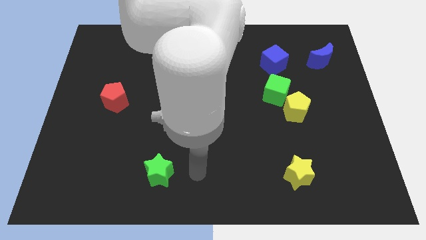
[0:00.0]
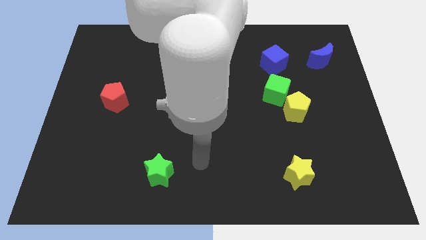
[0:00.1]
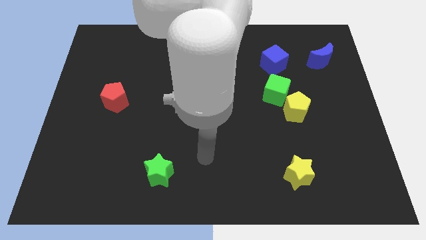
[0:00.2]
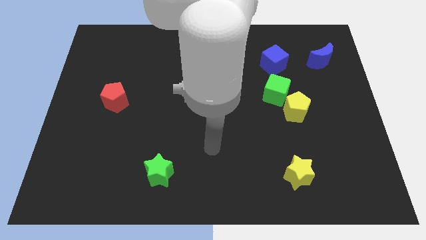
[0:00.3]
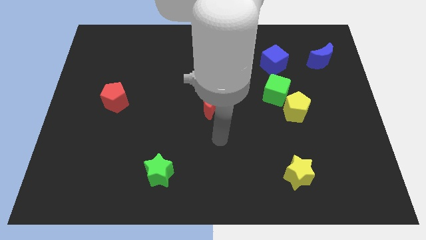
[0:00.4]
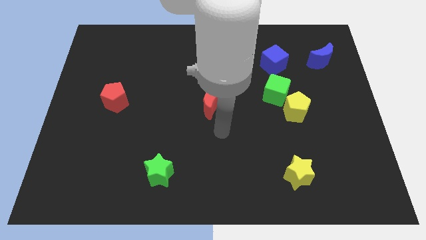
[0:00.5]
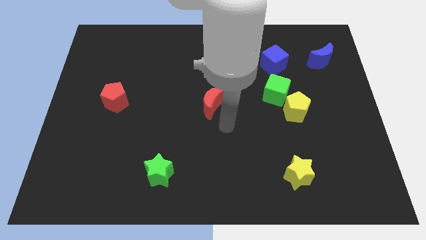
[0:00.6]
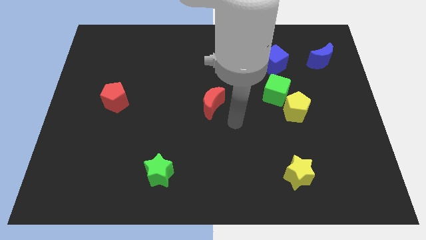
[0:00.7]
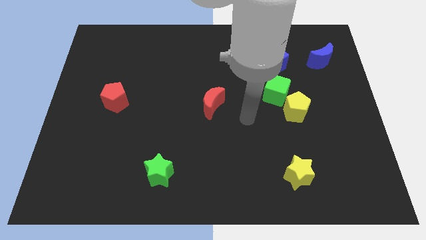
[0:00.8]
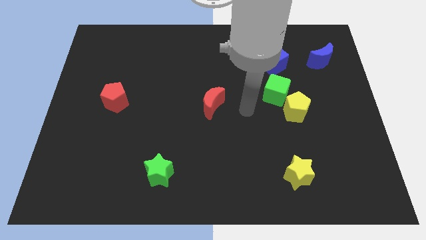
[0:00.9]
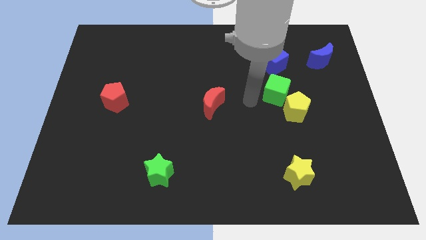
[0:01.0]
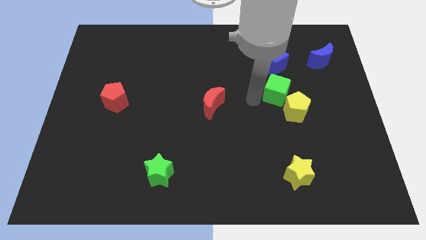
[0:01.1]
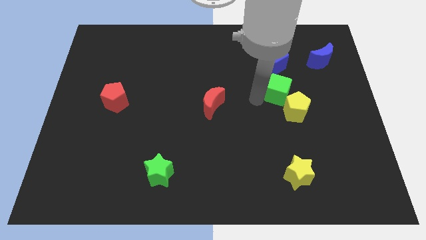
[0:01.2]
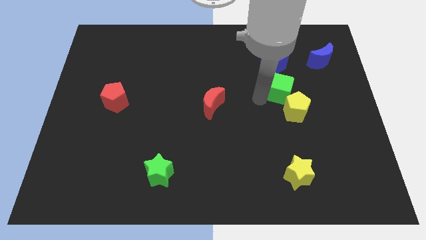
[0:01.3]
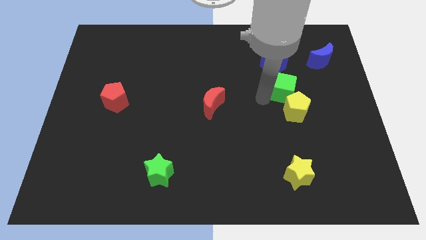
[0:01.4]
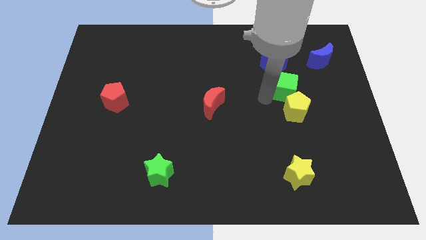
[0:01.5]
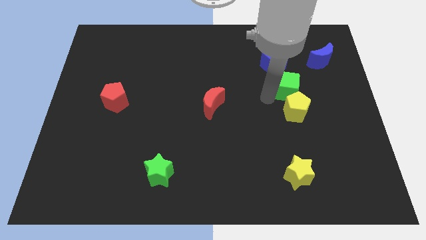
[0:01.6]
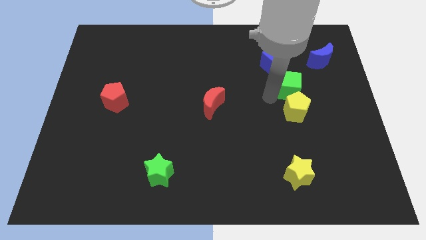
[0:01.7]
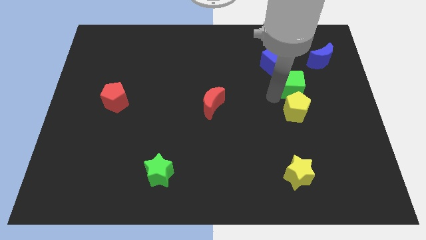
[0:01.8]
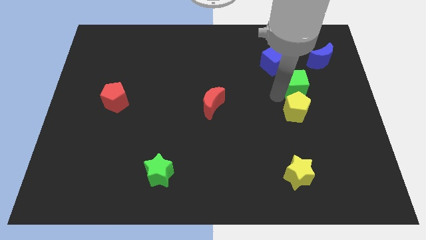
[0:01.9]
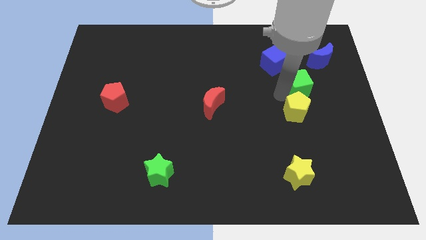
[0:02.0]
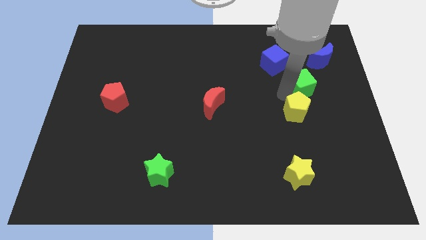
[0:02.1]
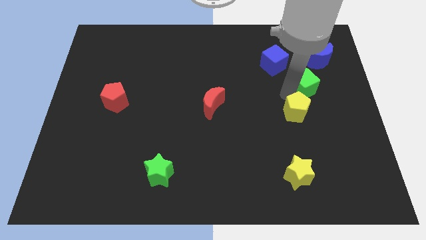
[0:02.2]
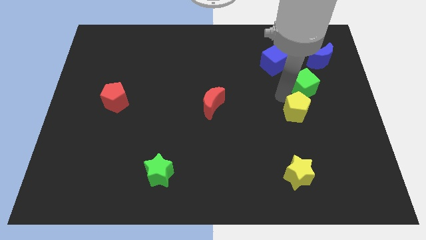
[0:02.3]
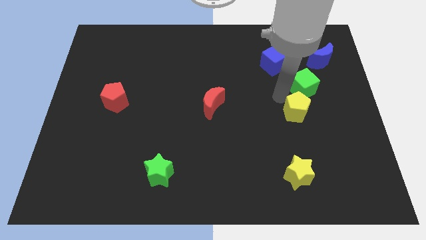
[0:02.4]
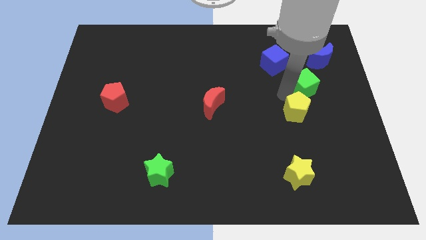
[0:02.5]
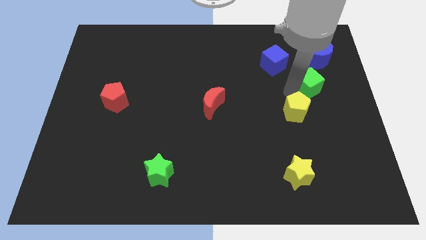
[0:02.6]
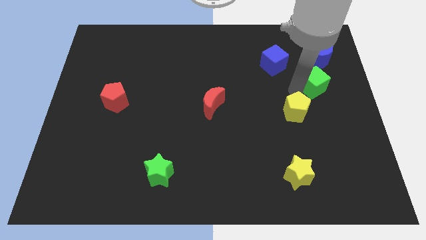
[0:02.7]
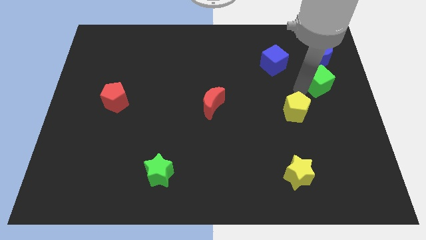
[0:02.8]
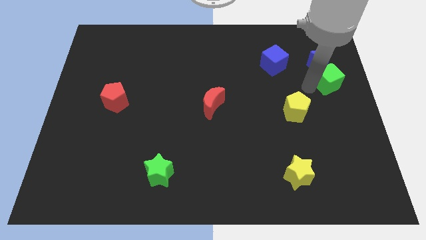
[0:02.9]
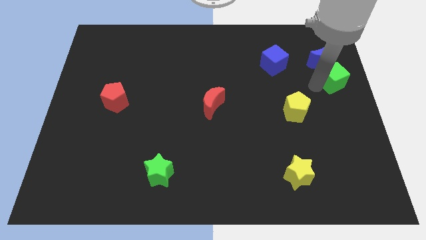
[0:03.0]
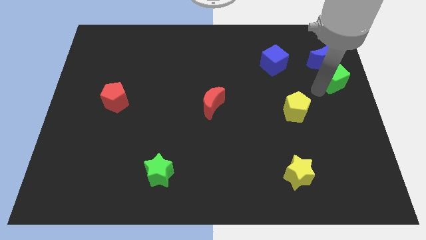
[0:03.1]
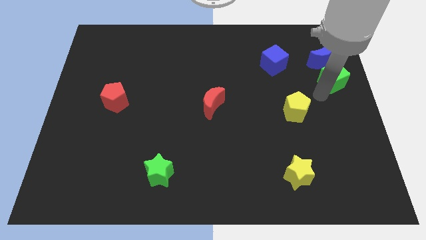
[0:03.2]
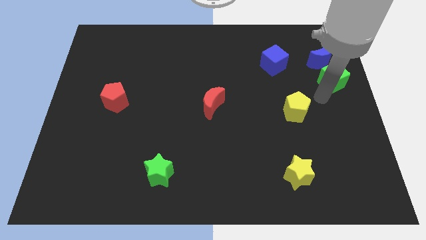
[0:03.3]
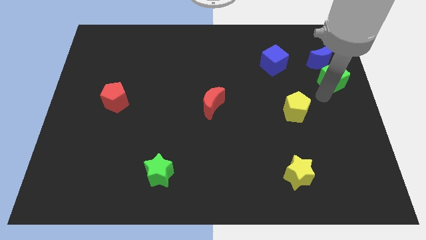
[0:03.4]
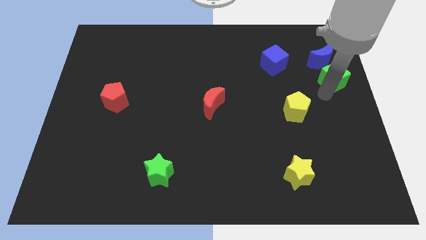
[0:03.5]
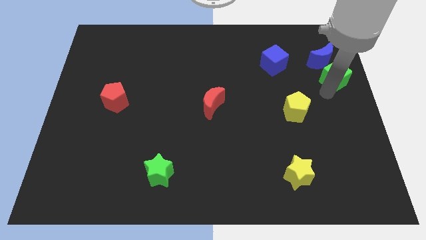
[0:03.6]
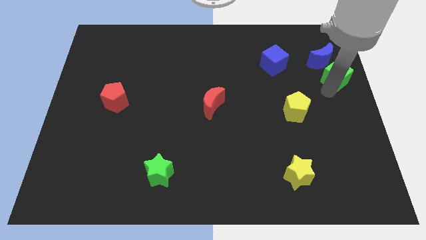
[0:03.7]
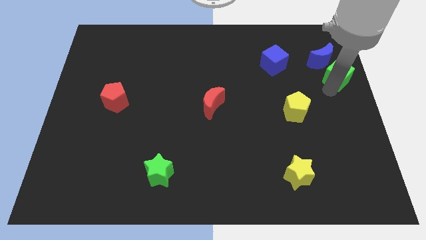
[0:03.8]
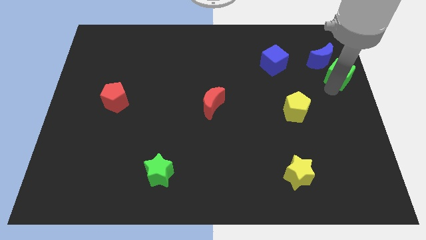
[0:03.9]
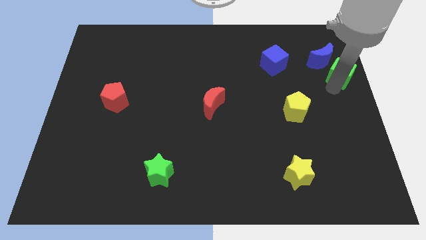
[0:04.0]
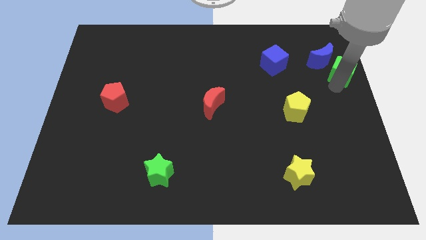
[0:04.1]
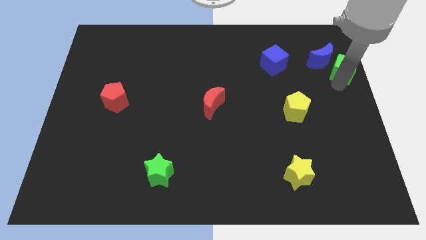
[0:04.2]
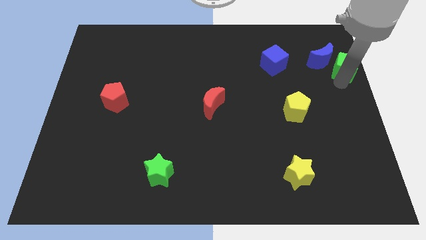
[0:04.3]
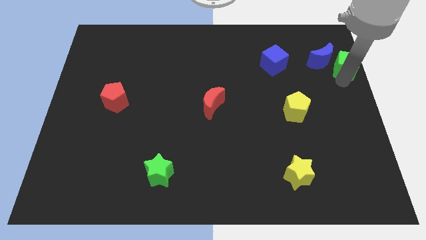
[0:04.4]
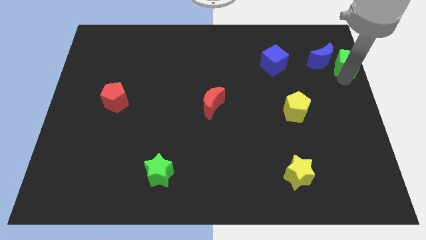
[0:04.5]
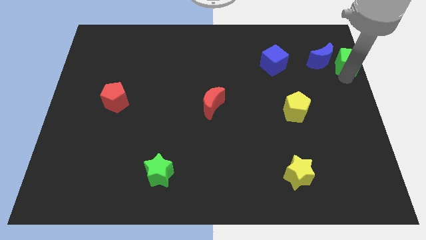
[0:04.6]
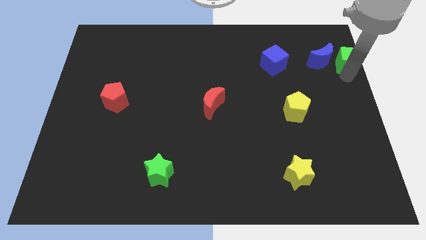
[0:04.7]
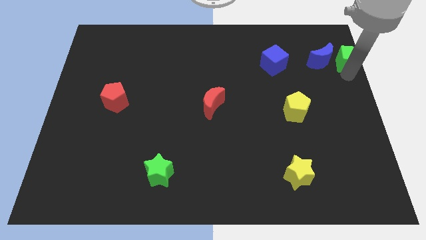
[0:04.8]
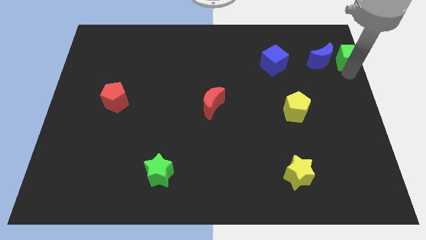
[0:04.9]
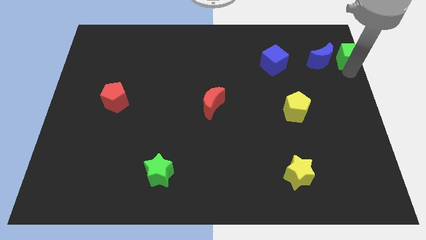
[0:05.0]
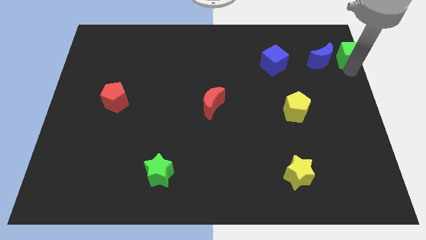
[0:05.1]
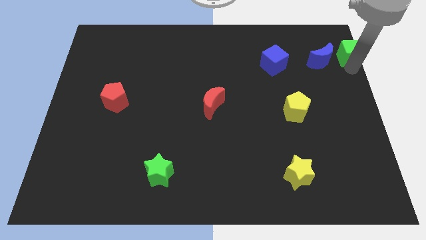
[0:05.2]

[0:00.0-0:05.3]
put the green cube to the upper right corner
